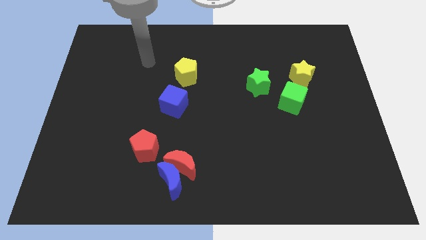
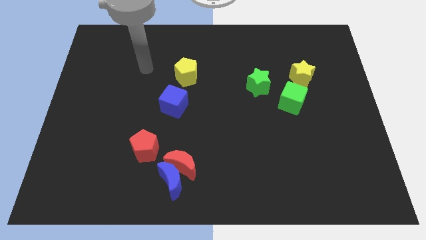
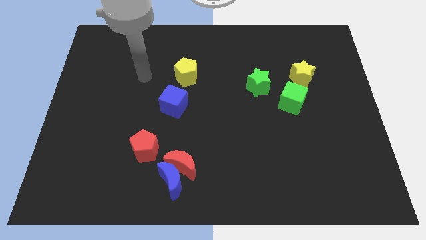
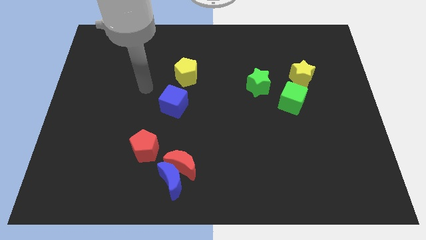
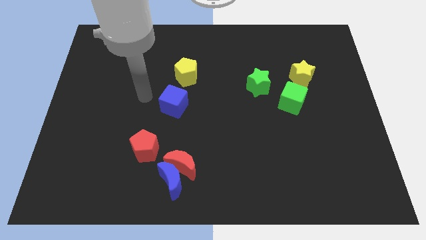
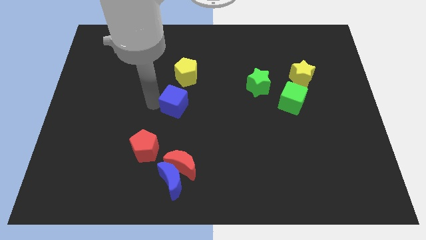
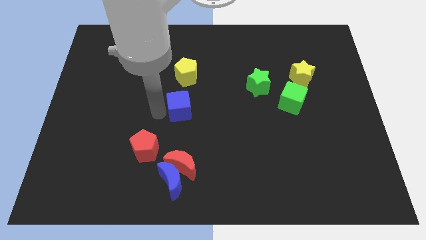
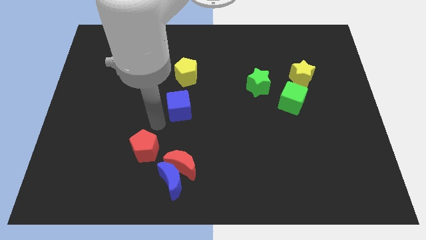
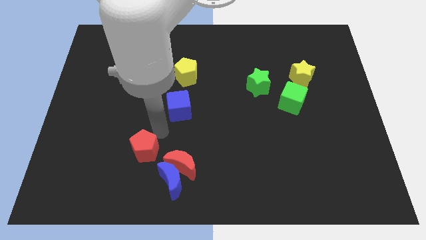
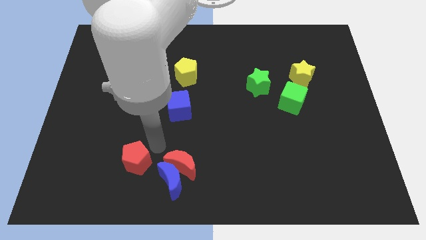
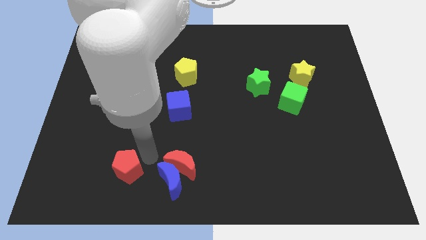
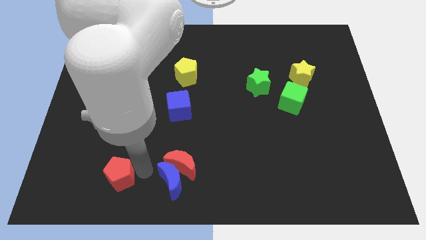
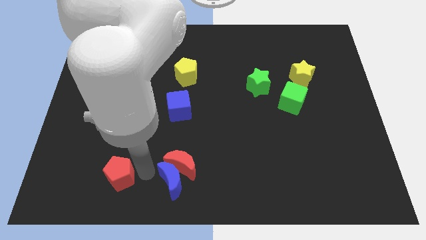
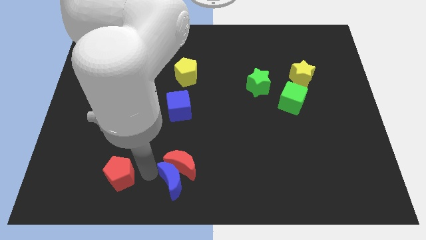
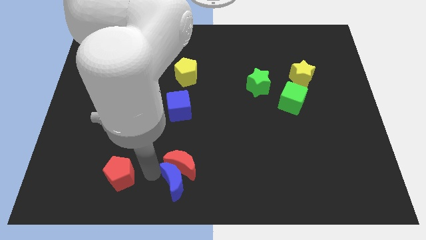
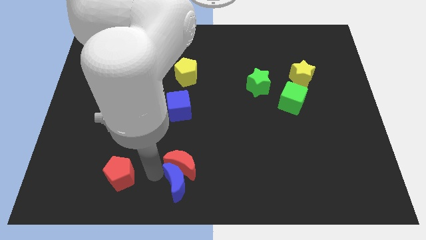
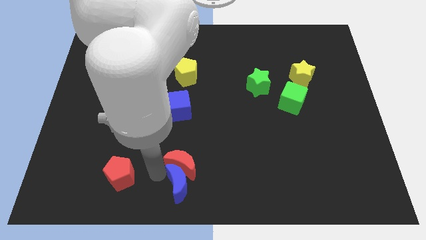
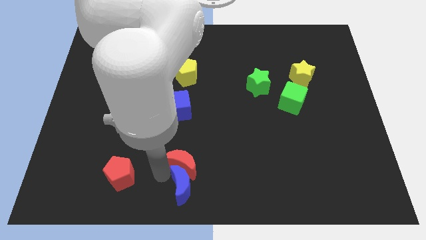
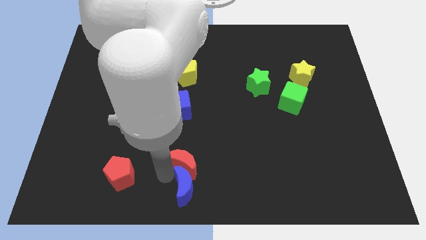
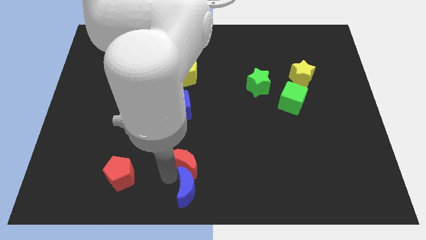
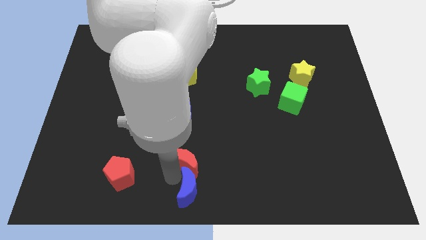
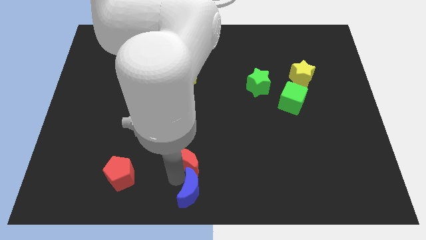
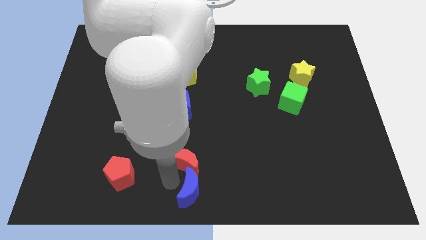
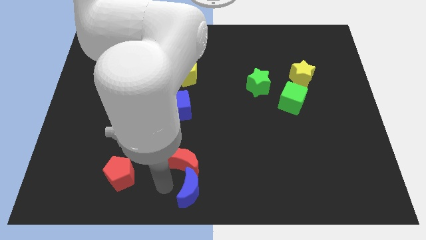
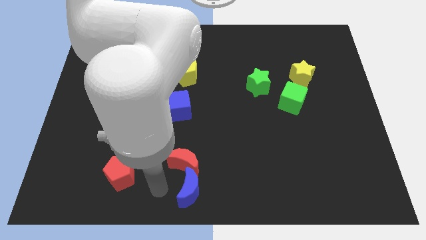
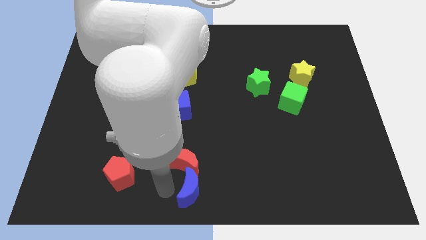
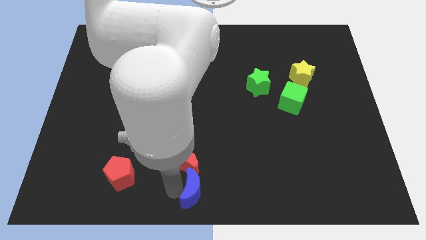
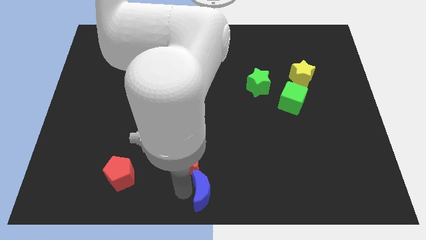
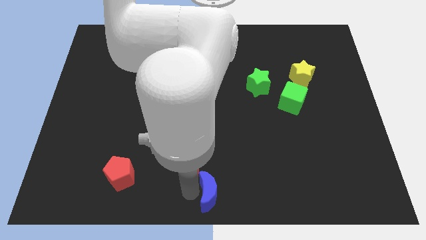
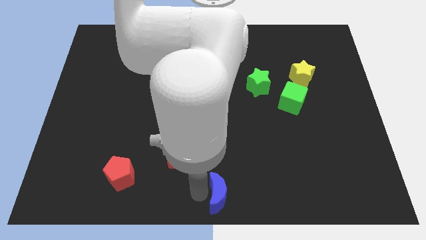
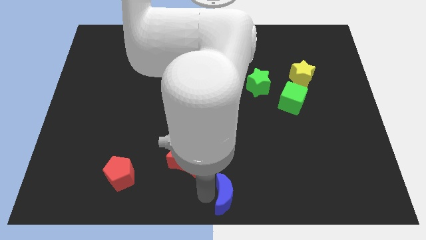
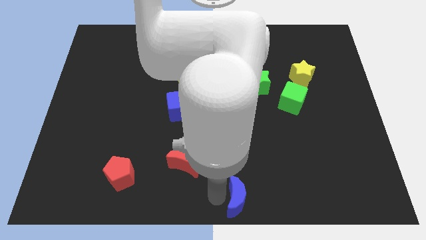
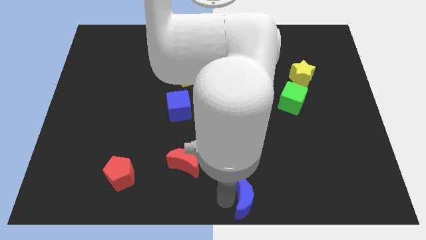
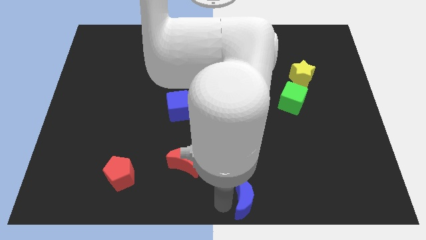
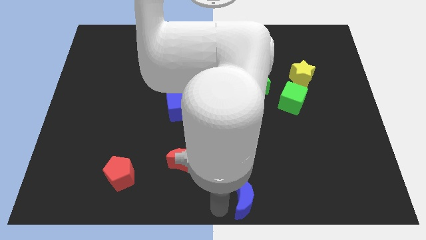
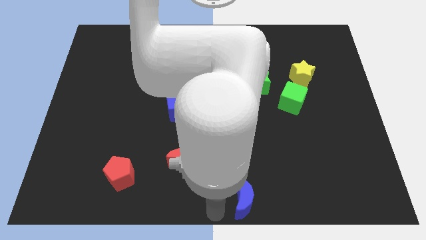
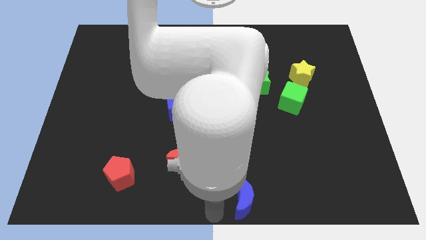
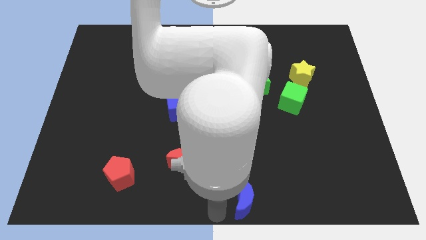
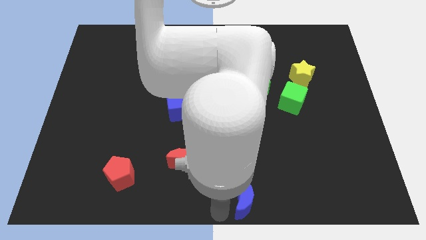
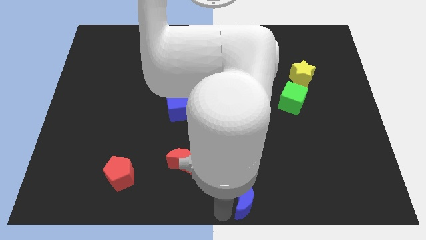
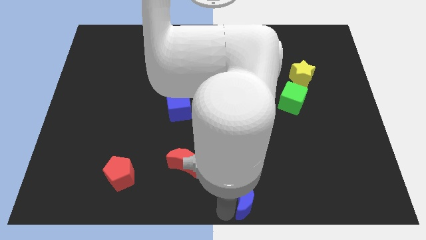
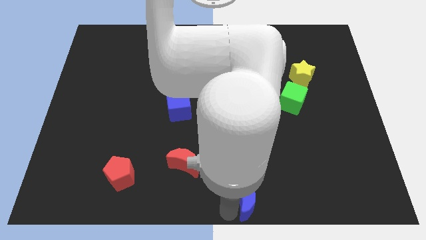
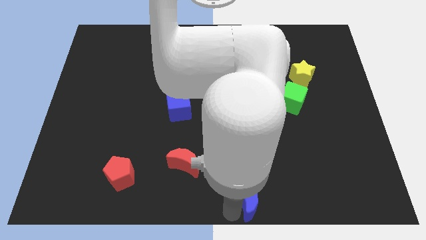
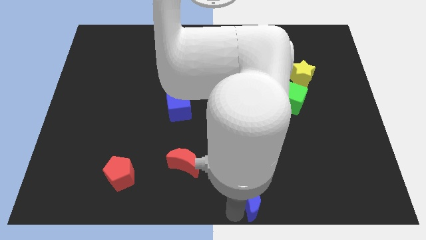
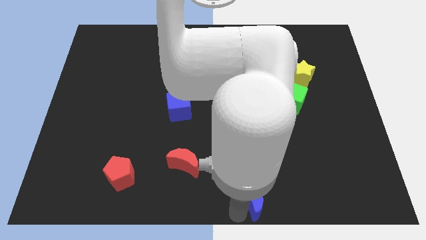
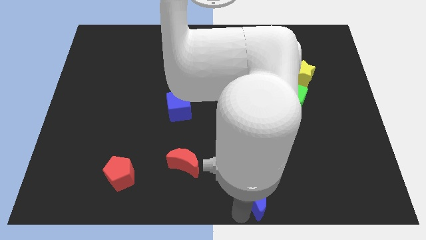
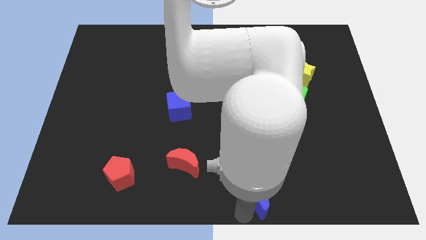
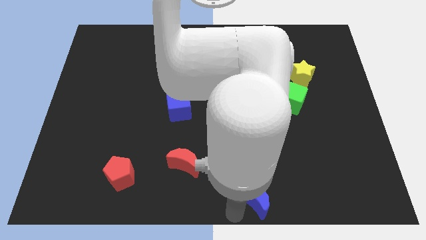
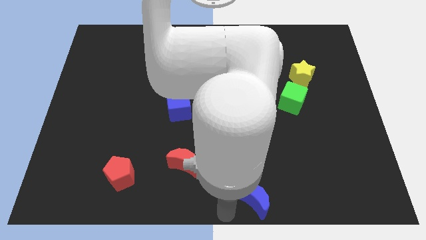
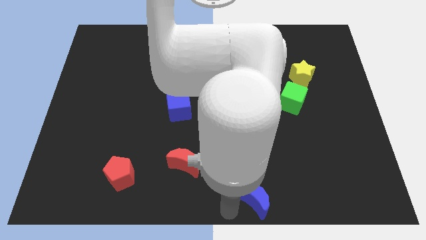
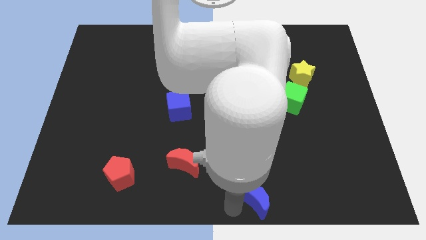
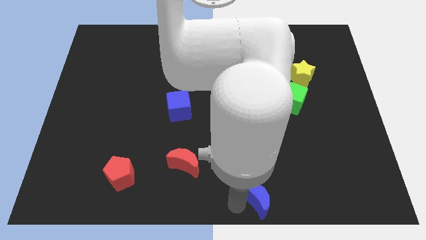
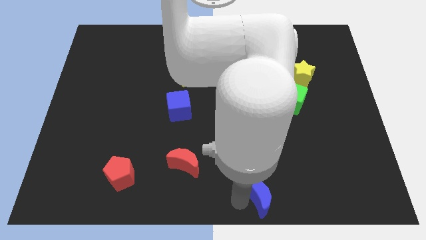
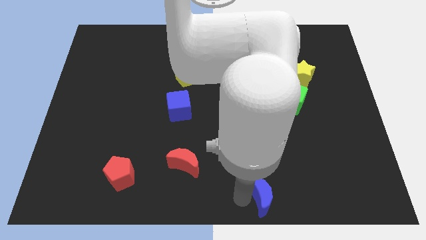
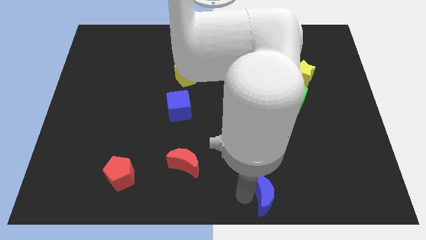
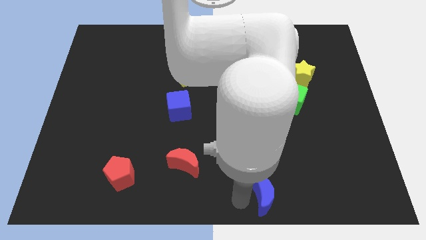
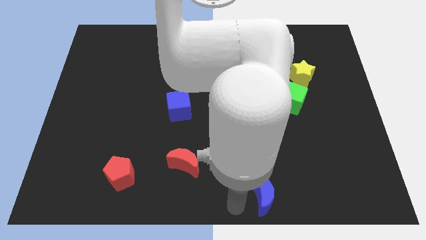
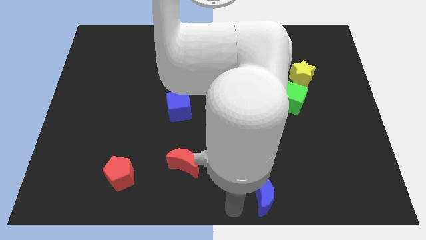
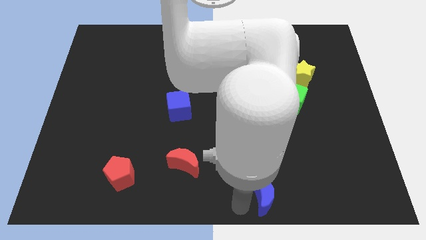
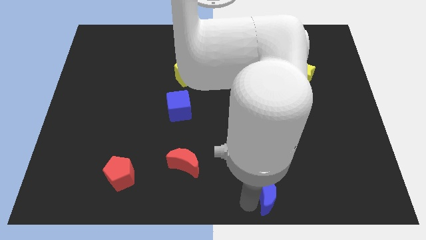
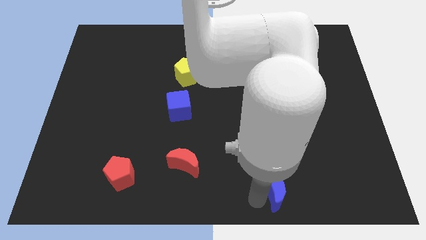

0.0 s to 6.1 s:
move the blue moon to the right

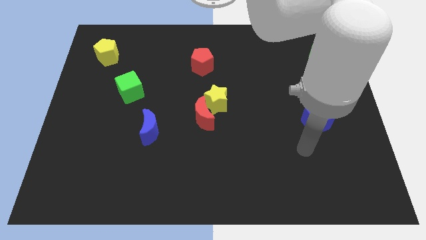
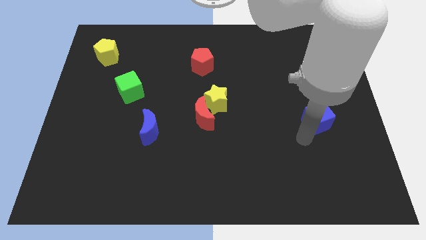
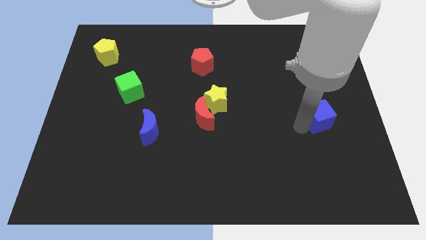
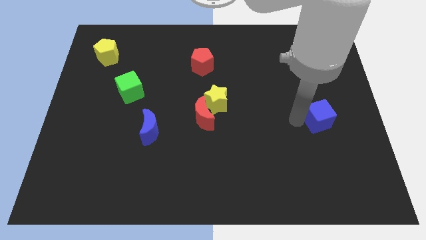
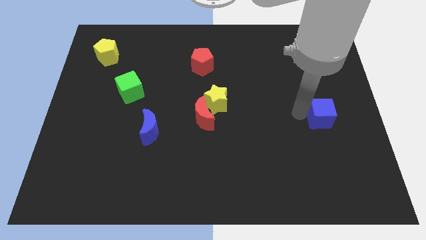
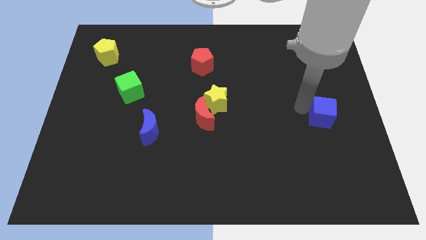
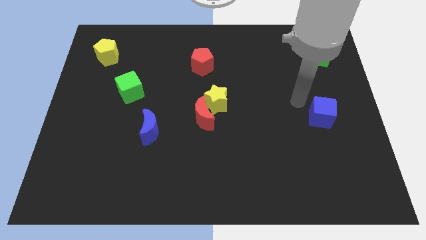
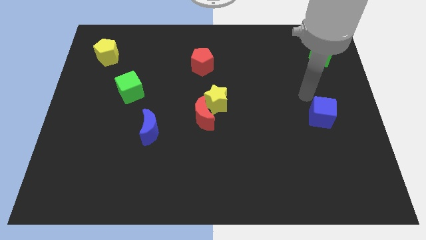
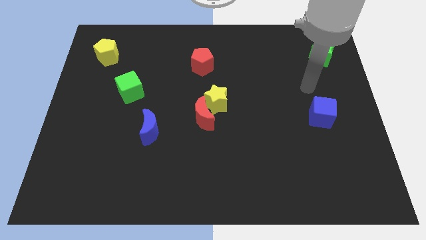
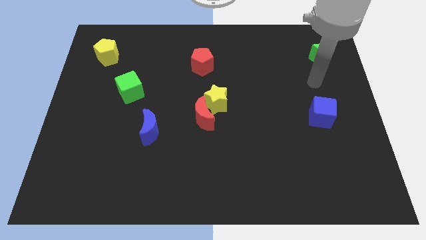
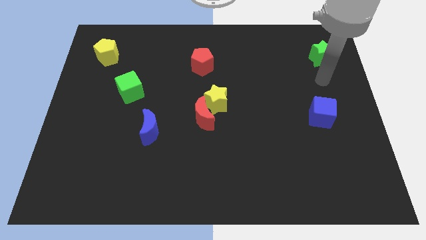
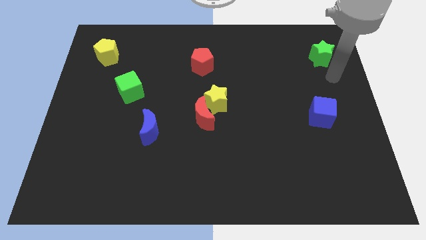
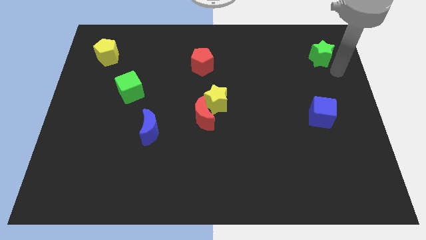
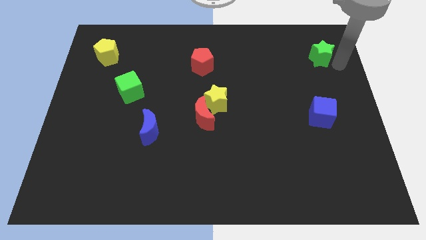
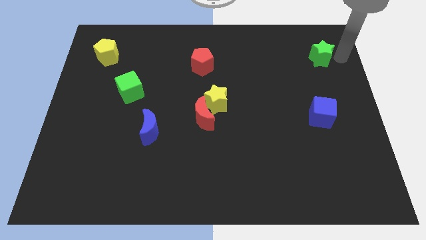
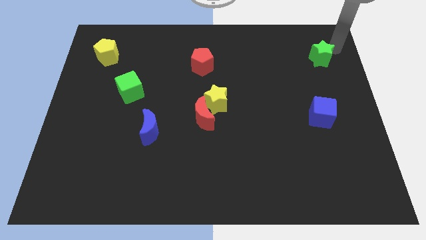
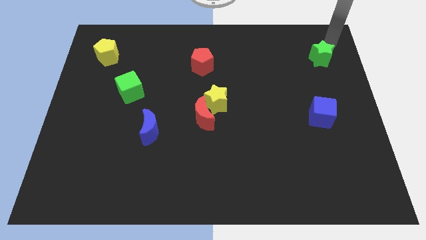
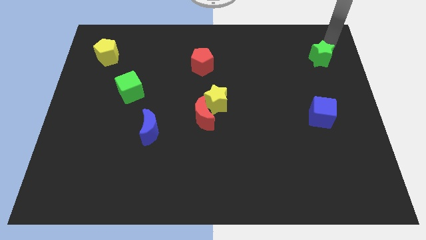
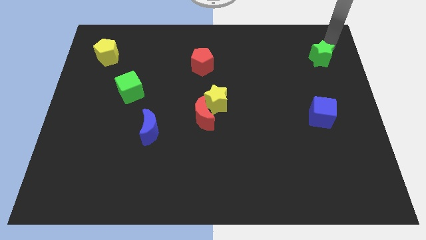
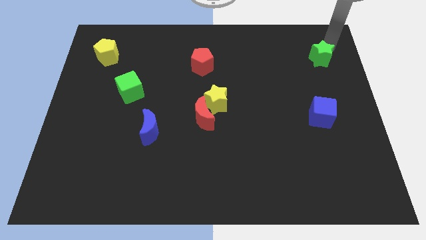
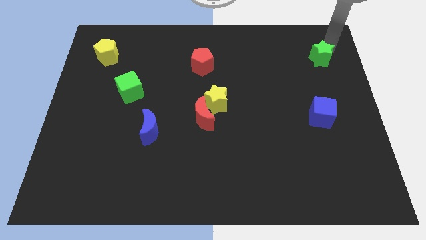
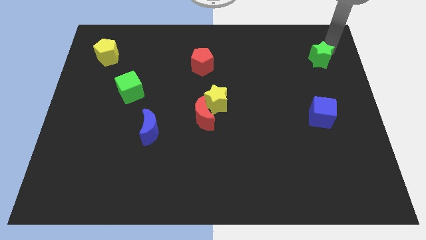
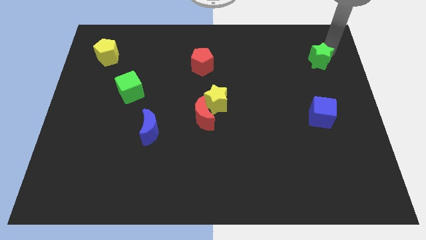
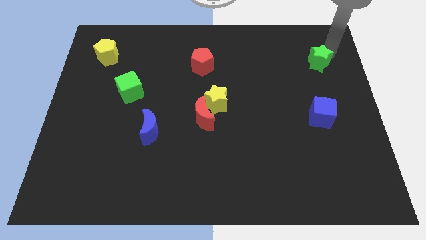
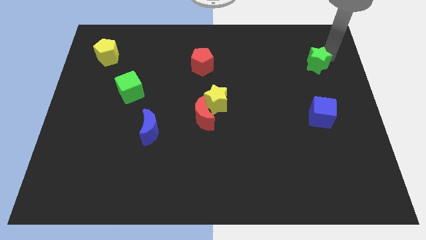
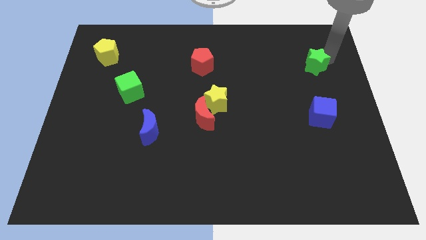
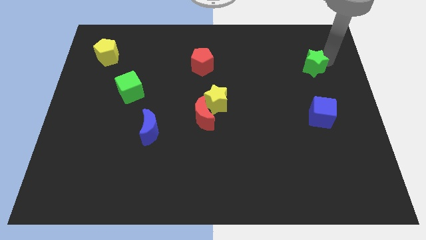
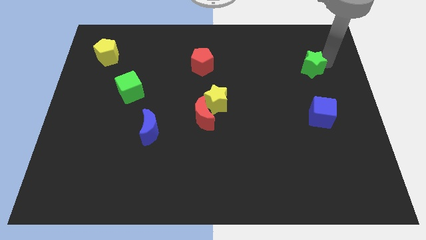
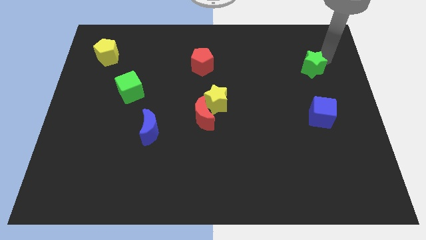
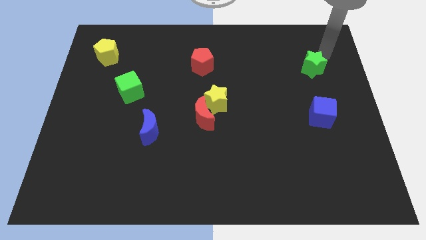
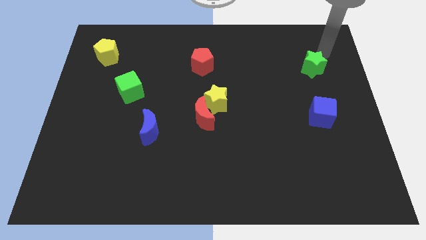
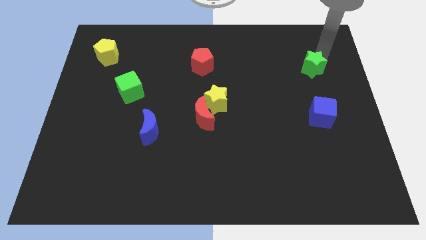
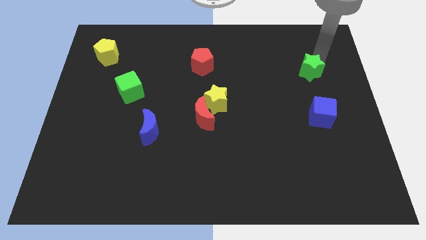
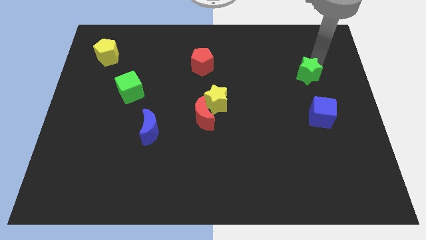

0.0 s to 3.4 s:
move the green star downwards and left a little
